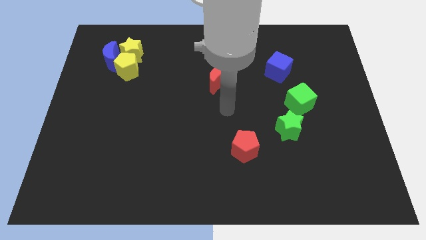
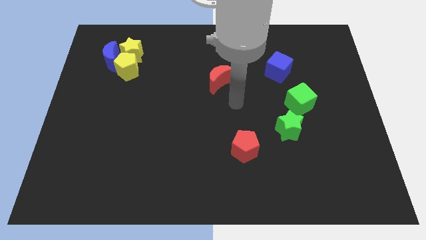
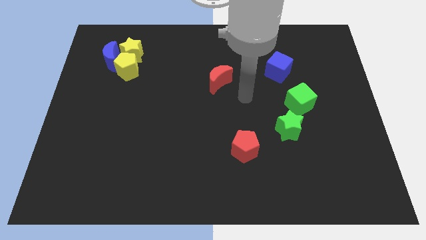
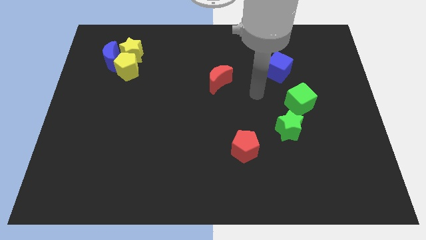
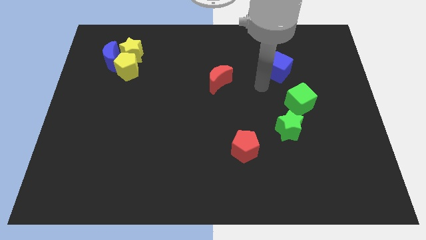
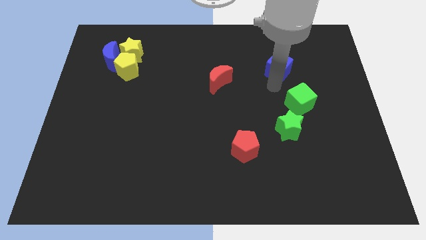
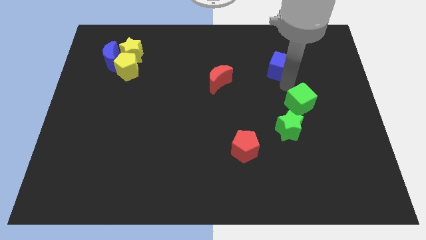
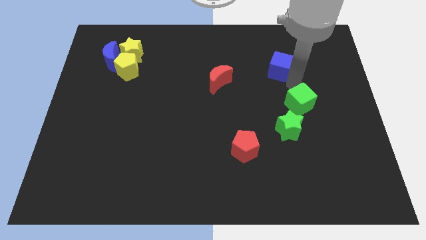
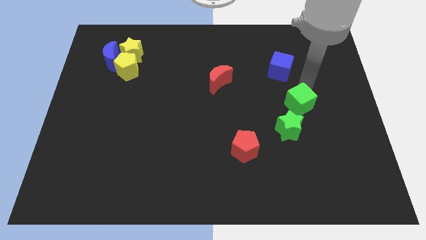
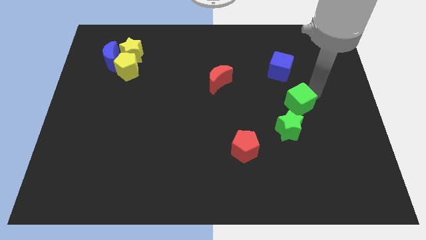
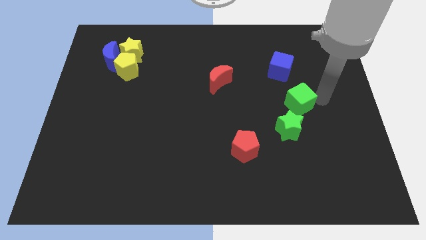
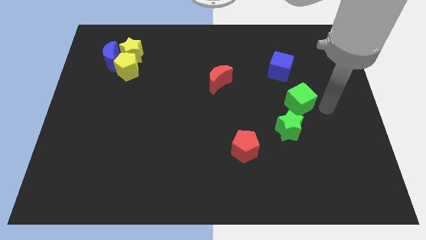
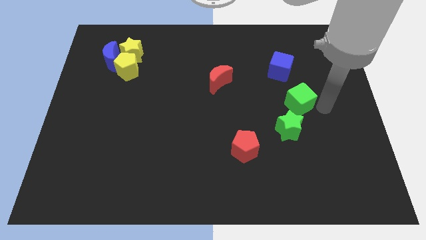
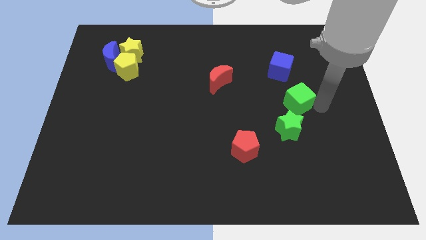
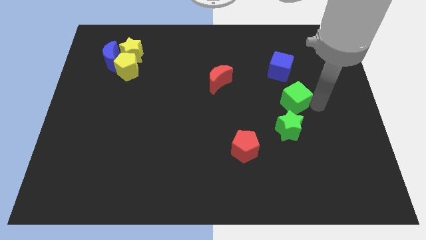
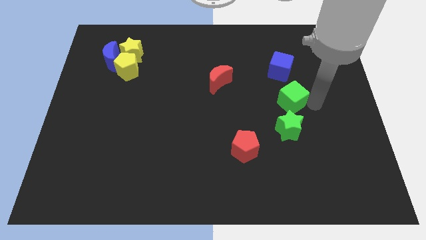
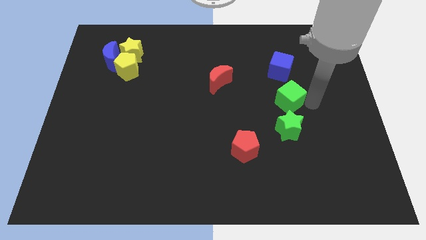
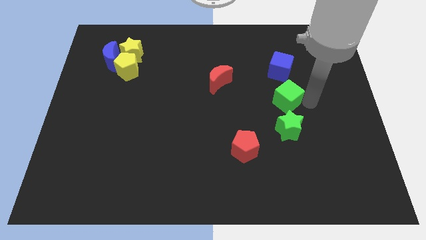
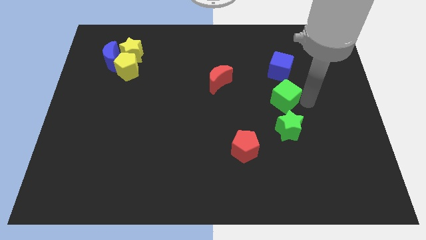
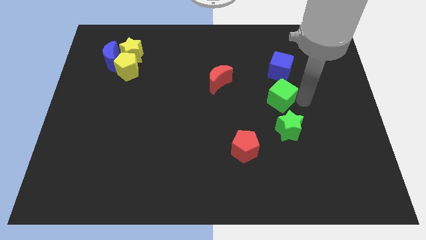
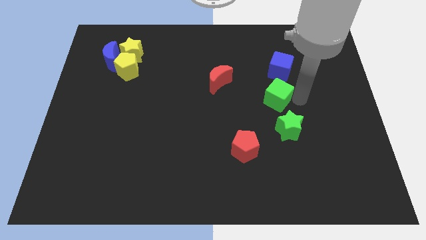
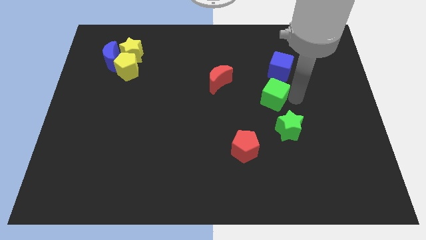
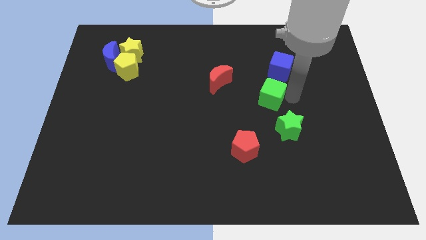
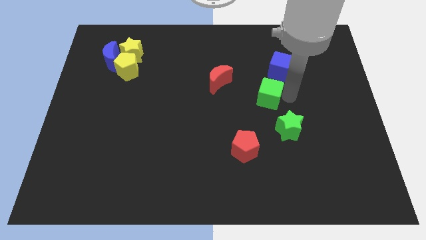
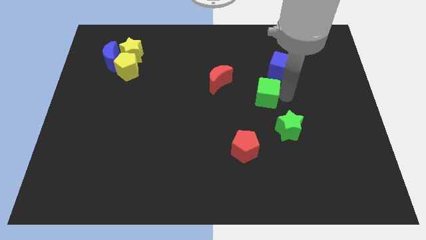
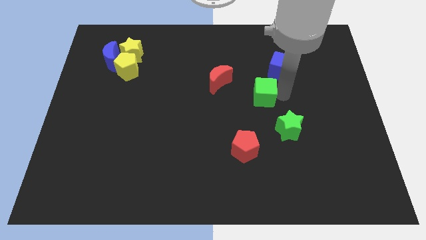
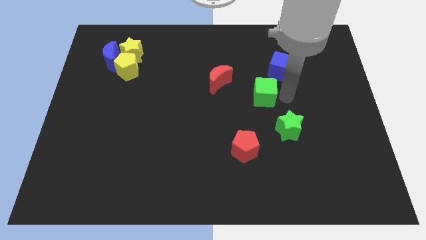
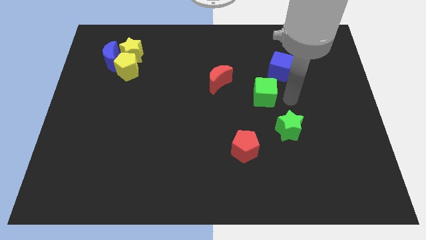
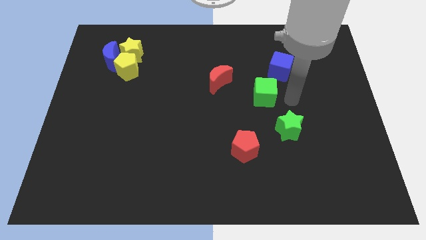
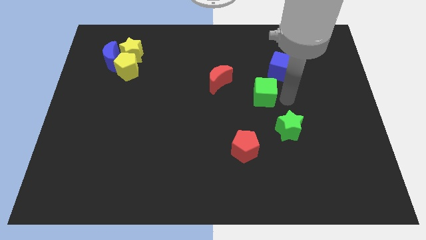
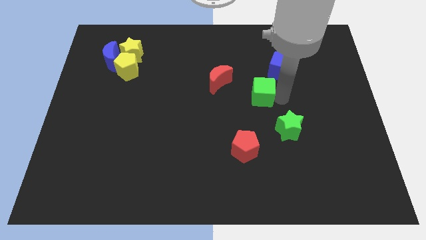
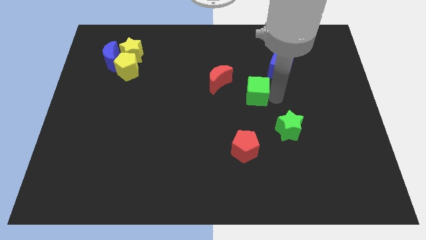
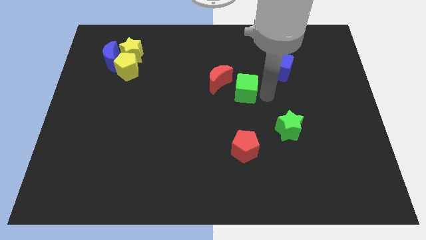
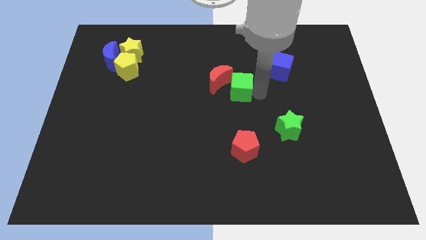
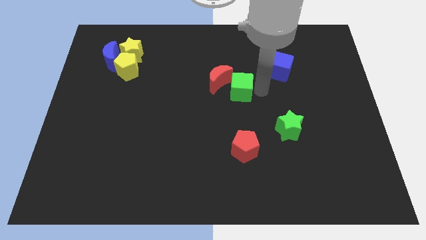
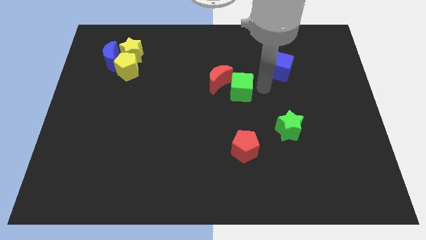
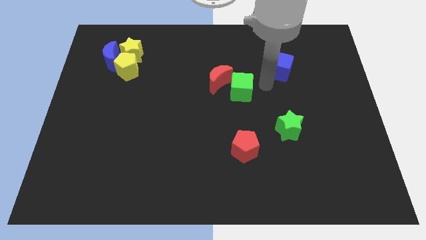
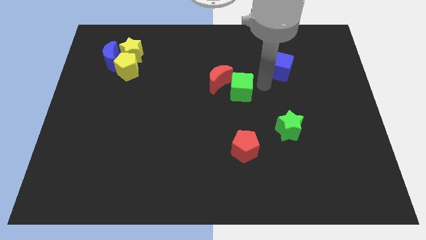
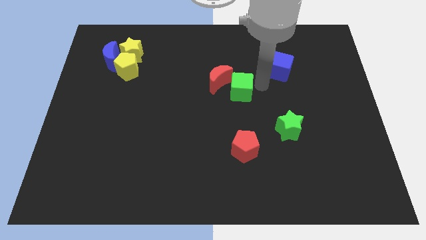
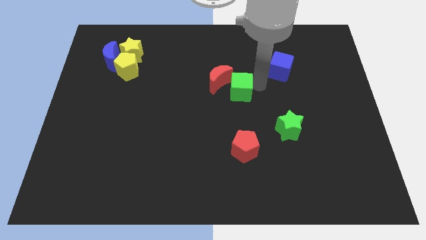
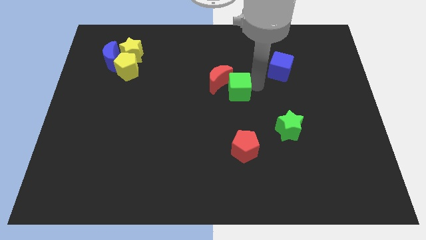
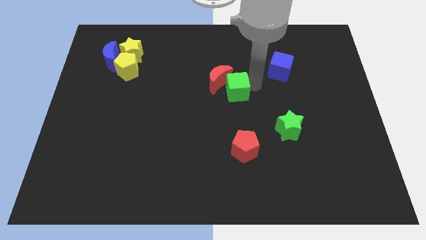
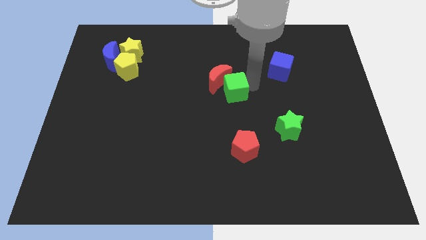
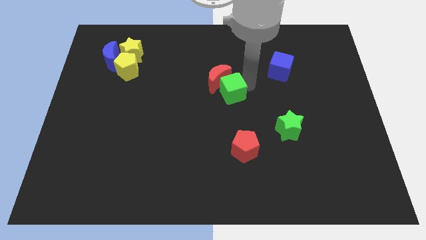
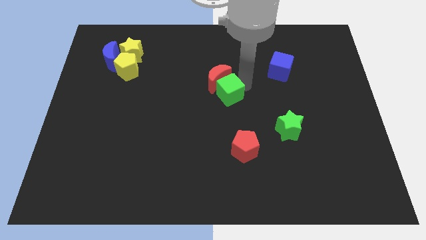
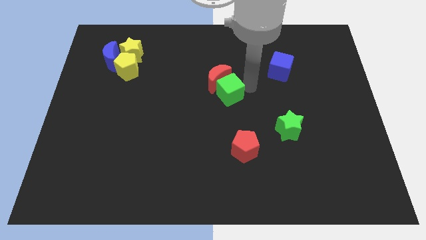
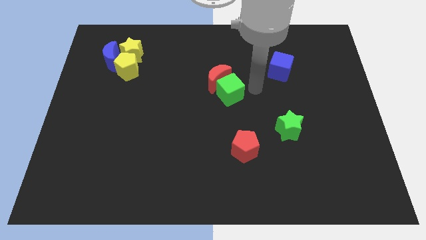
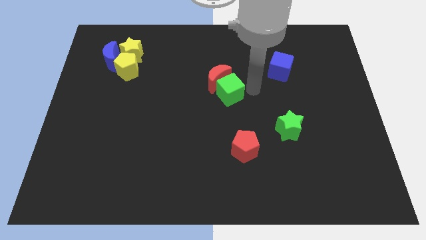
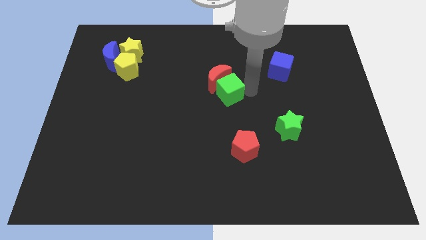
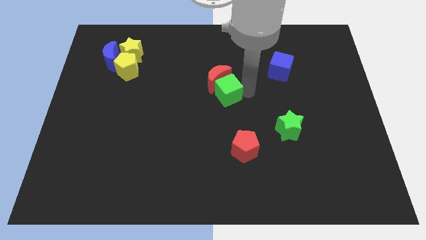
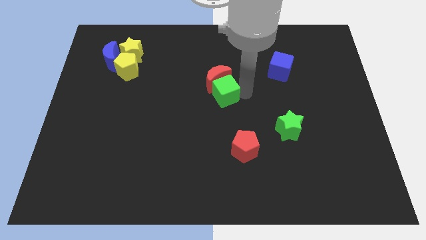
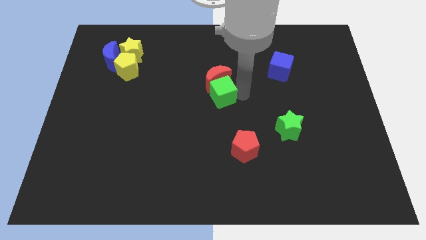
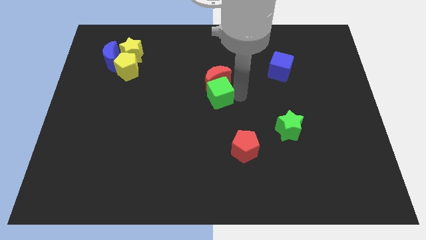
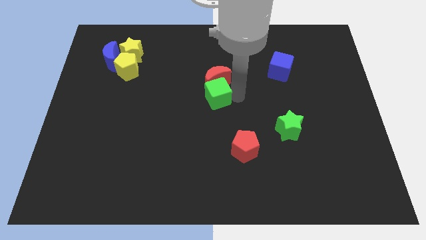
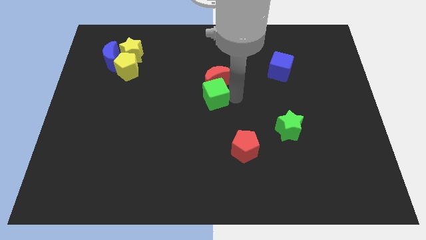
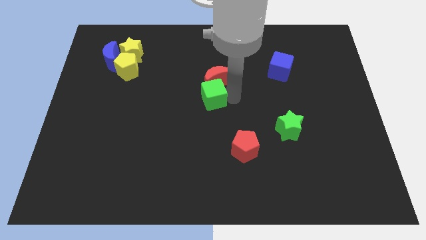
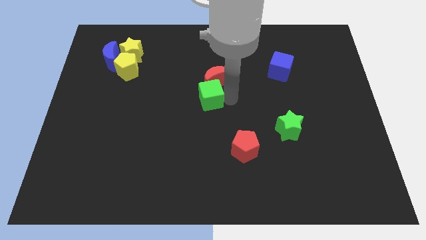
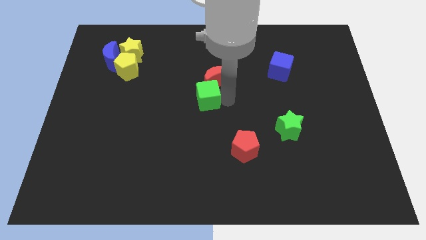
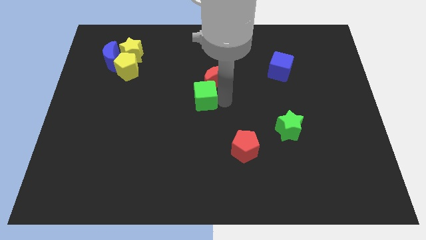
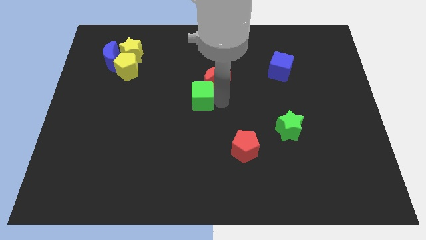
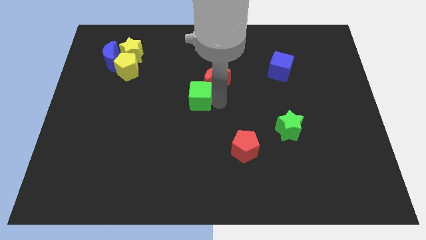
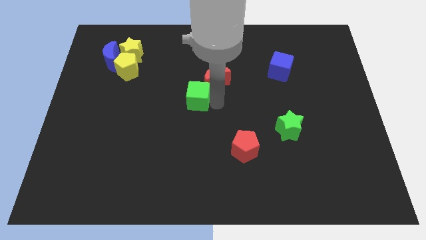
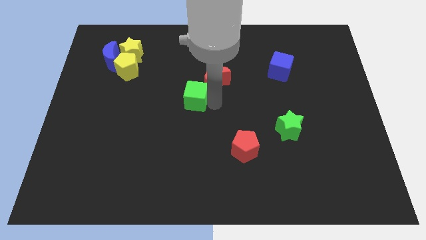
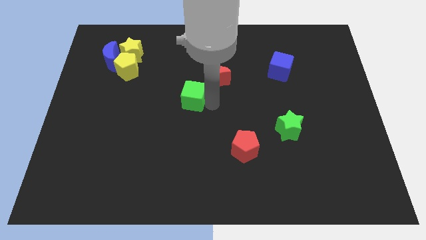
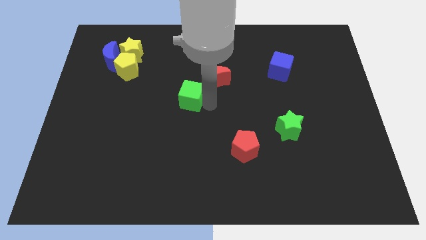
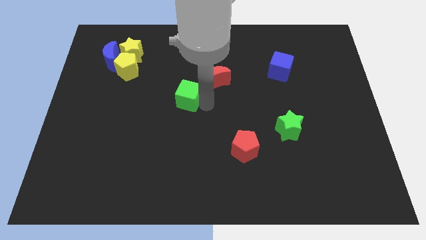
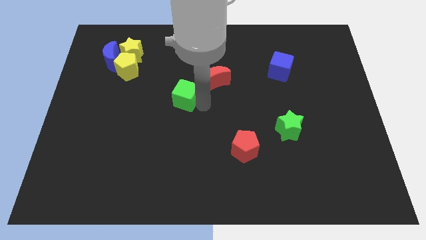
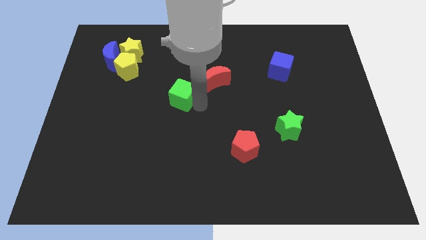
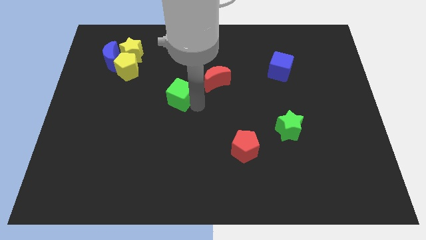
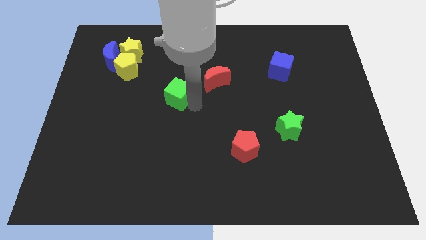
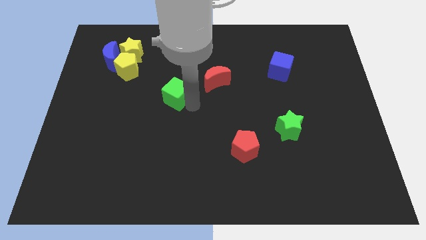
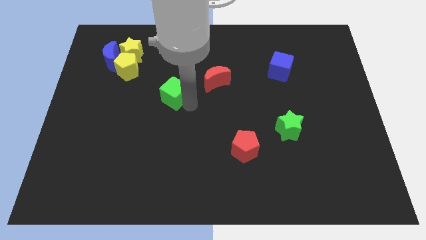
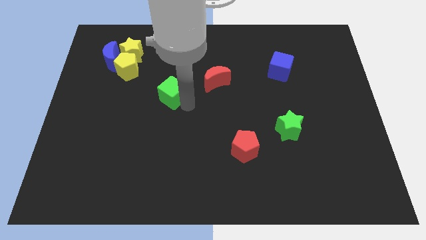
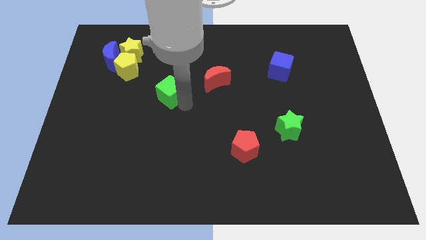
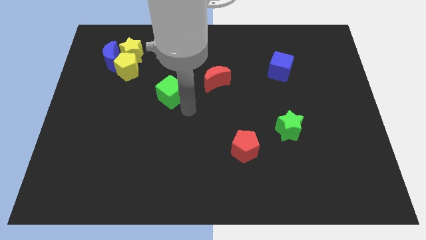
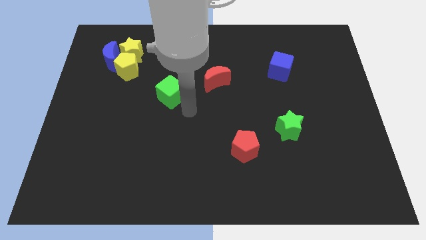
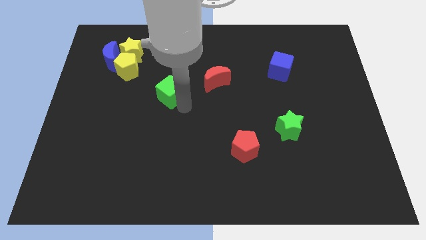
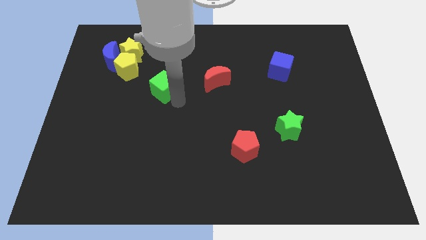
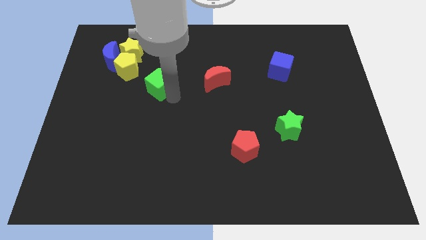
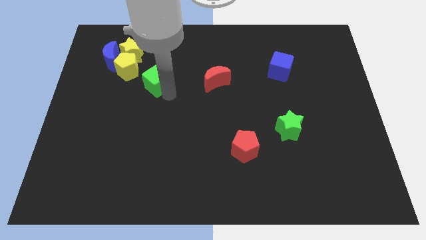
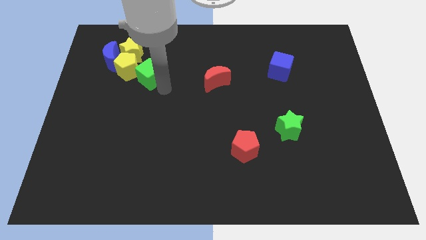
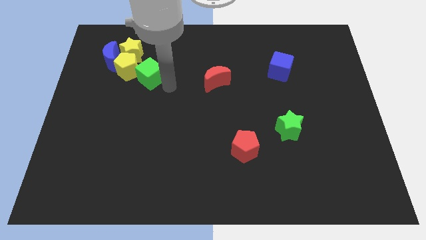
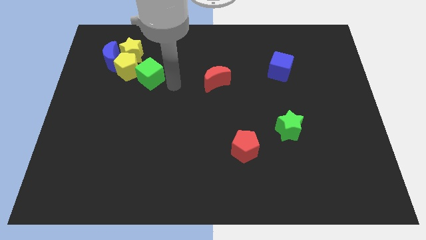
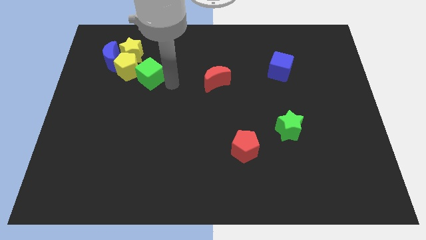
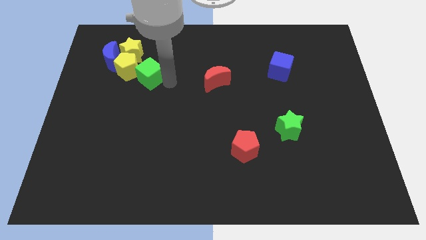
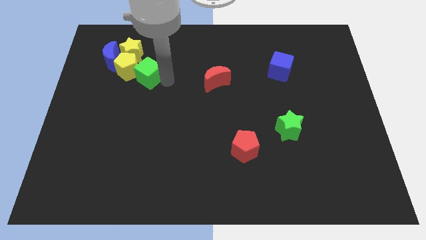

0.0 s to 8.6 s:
move the green cube next to the yellow pentagon
